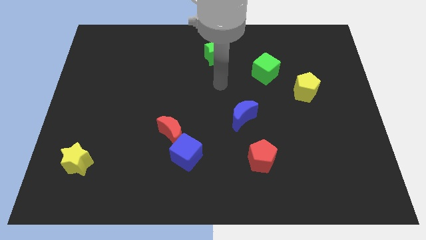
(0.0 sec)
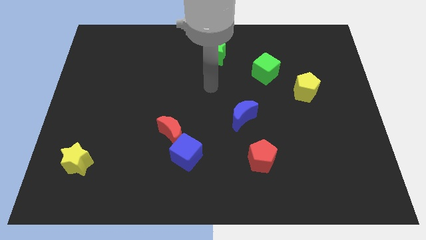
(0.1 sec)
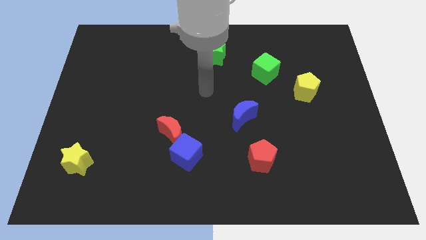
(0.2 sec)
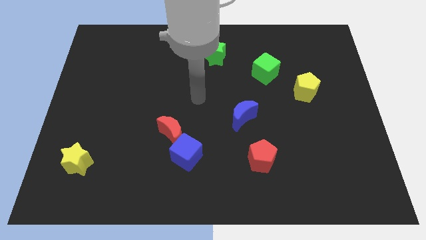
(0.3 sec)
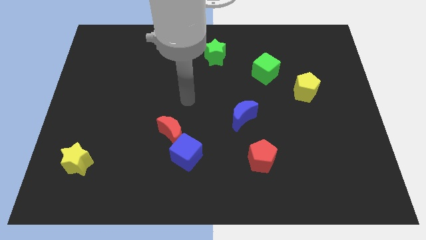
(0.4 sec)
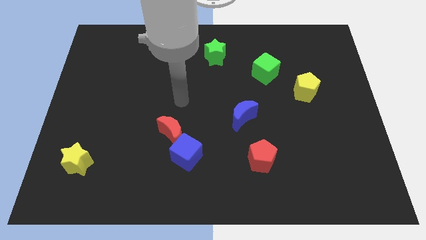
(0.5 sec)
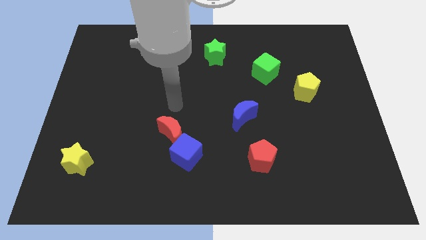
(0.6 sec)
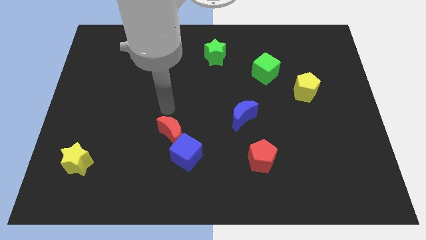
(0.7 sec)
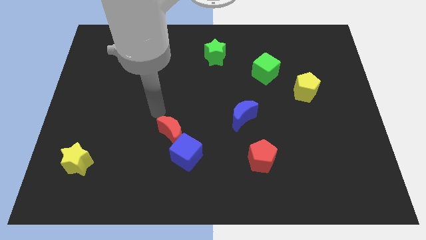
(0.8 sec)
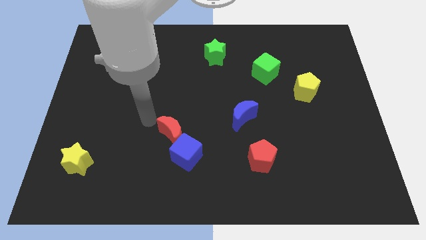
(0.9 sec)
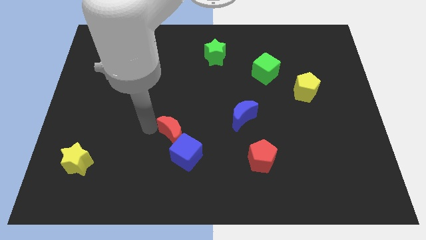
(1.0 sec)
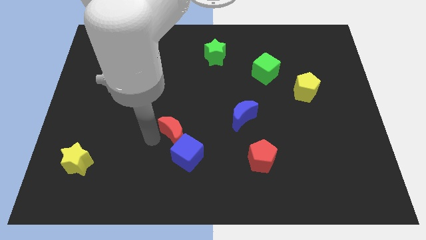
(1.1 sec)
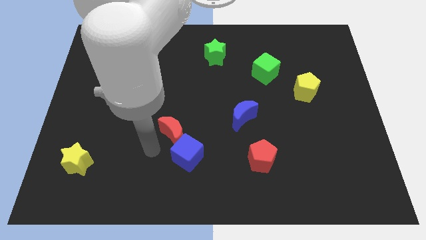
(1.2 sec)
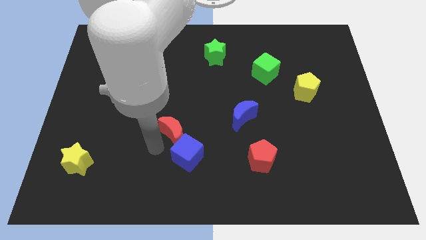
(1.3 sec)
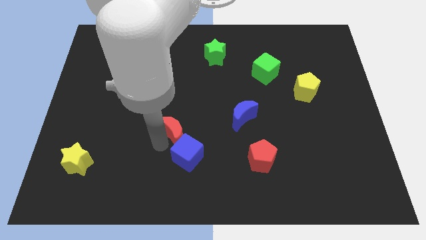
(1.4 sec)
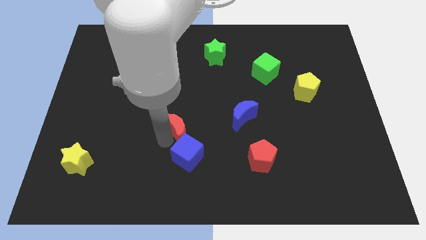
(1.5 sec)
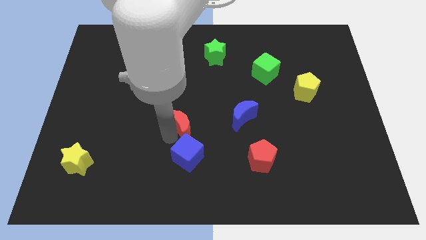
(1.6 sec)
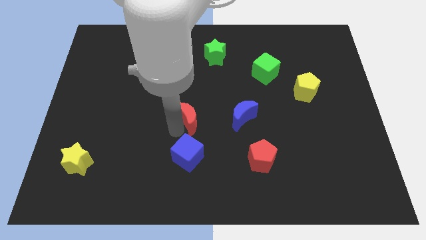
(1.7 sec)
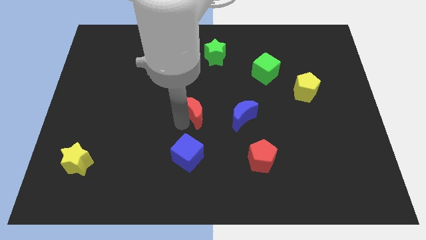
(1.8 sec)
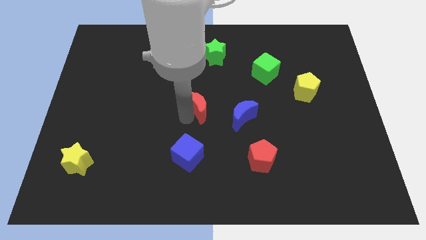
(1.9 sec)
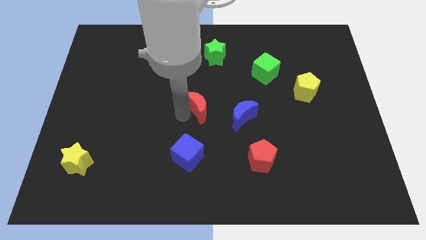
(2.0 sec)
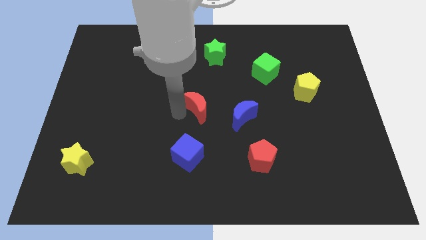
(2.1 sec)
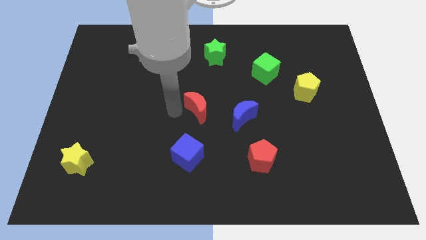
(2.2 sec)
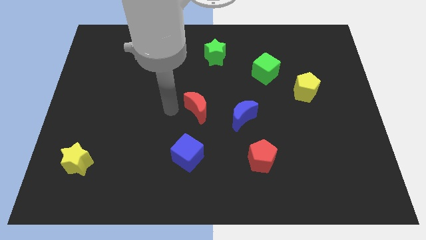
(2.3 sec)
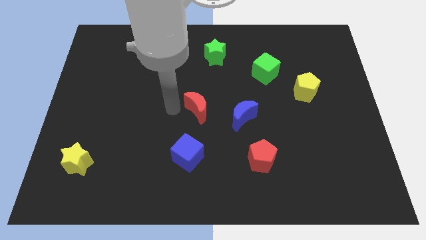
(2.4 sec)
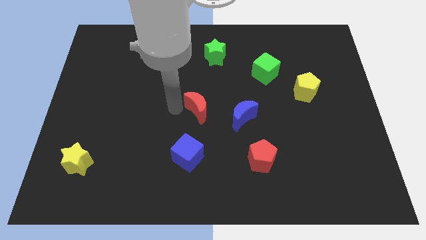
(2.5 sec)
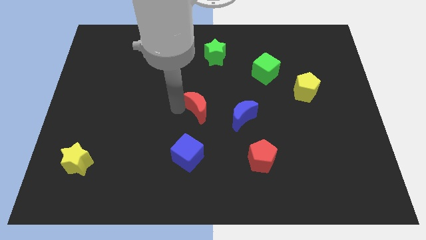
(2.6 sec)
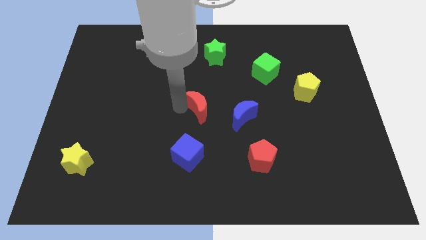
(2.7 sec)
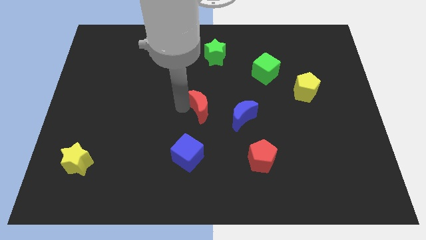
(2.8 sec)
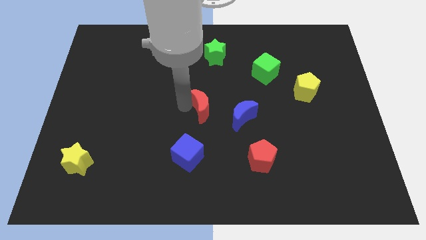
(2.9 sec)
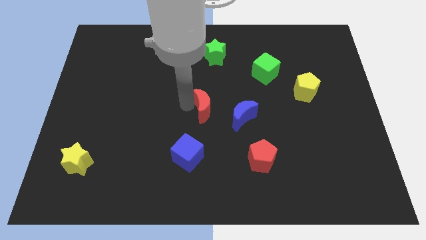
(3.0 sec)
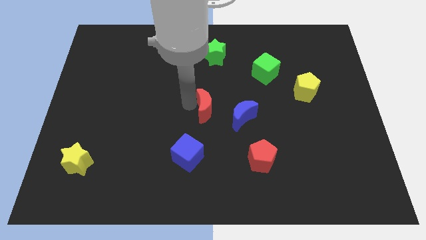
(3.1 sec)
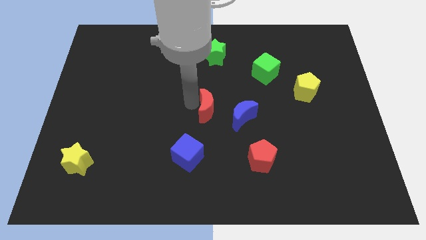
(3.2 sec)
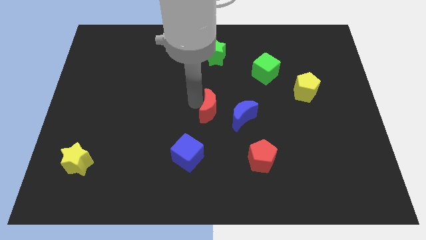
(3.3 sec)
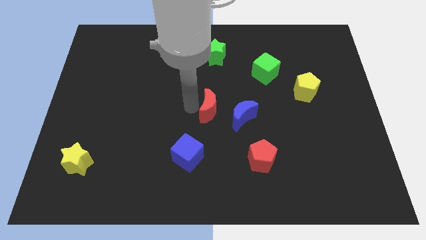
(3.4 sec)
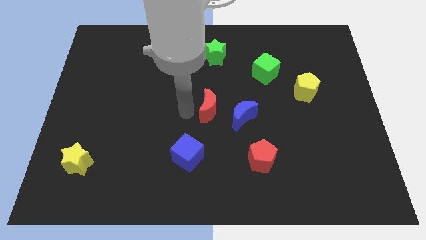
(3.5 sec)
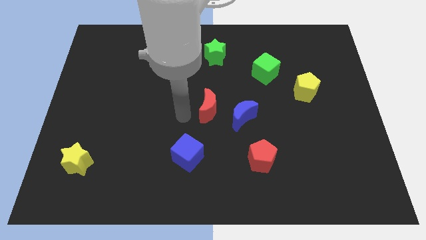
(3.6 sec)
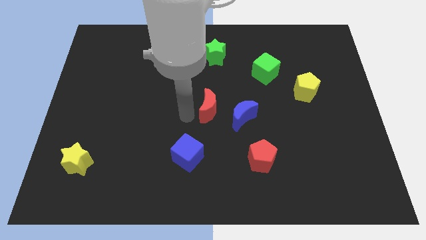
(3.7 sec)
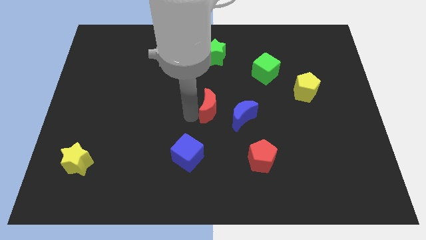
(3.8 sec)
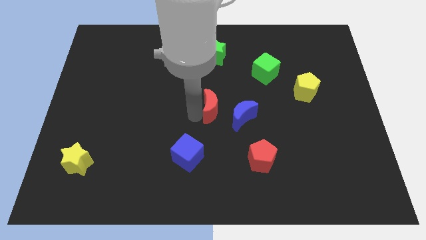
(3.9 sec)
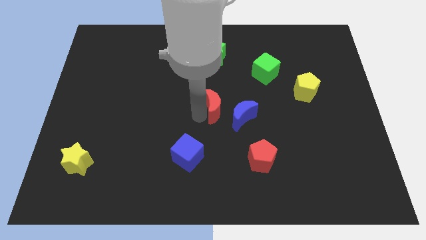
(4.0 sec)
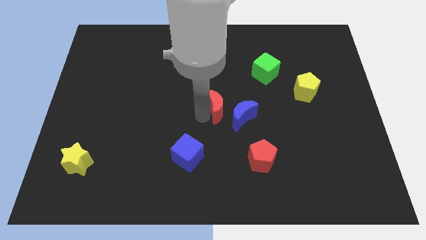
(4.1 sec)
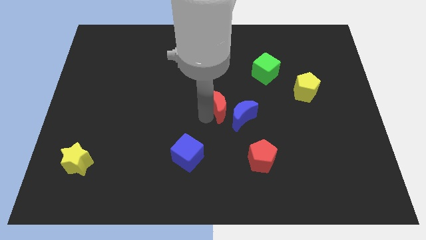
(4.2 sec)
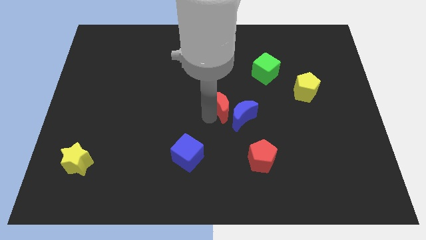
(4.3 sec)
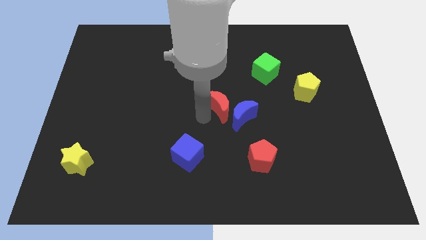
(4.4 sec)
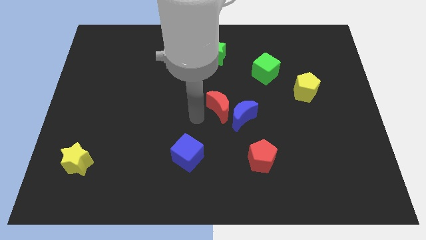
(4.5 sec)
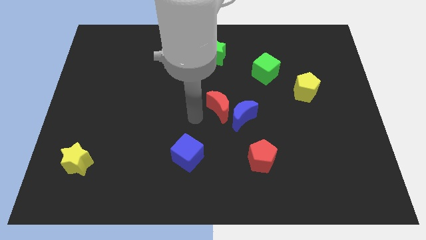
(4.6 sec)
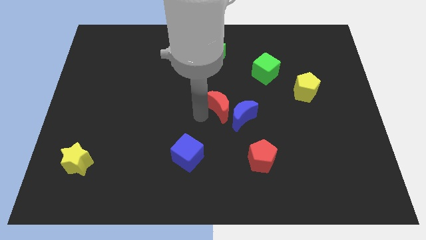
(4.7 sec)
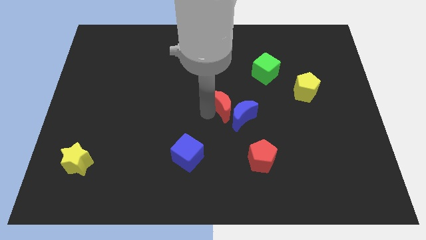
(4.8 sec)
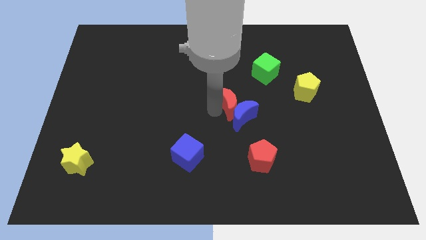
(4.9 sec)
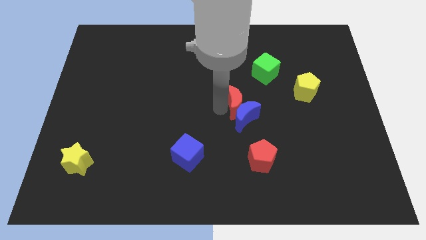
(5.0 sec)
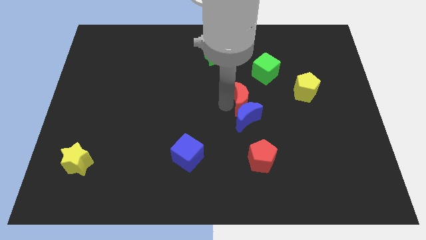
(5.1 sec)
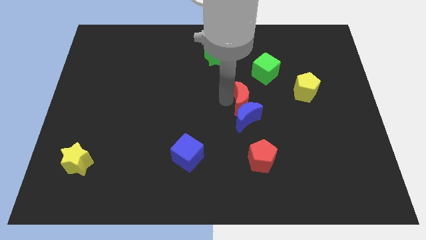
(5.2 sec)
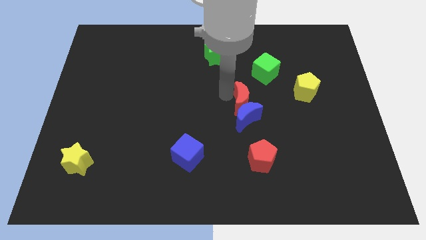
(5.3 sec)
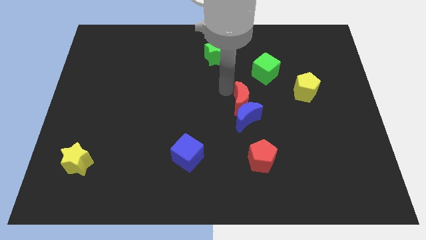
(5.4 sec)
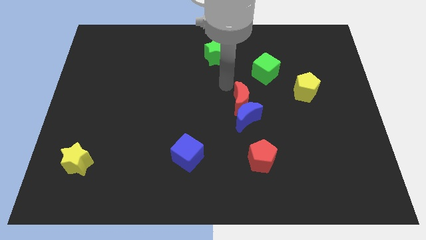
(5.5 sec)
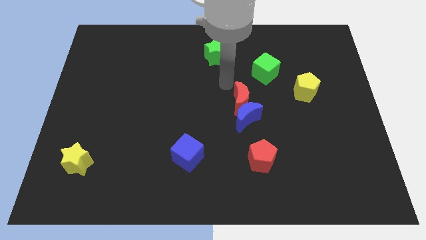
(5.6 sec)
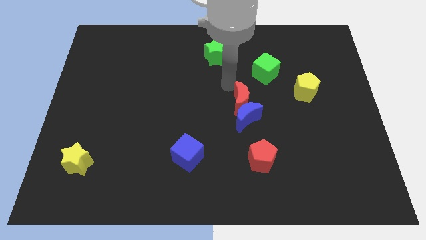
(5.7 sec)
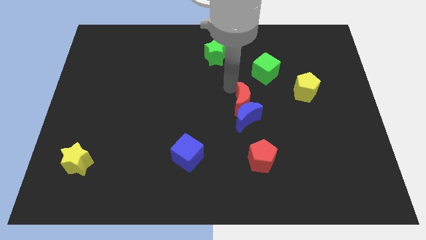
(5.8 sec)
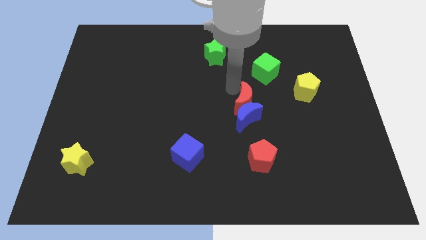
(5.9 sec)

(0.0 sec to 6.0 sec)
put the red moon above the red pentagon

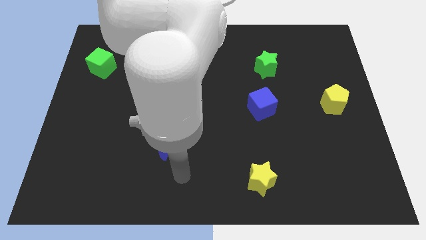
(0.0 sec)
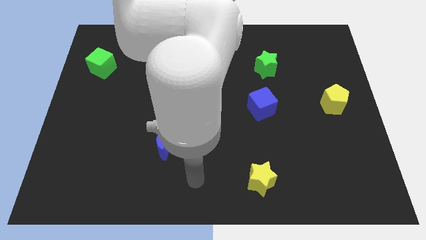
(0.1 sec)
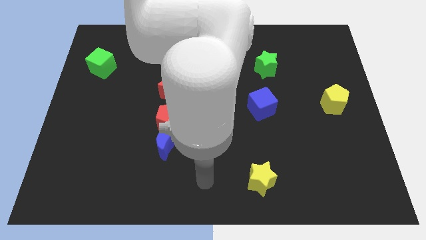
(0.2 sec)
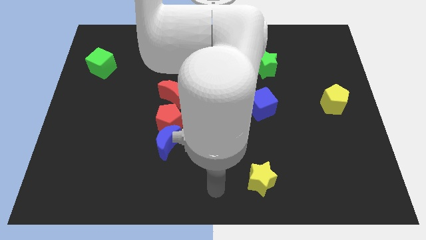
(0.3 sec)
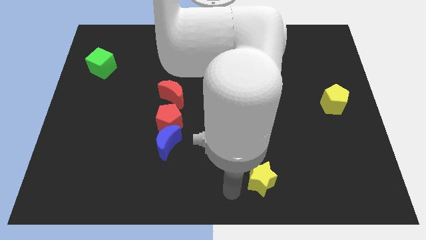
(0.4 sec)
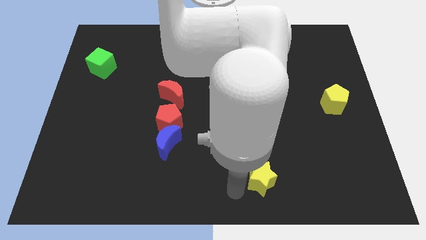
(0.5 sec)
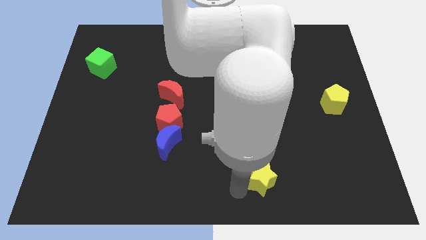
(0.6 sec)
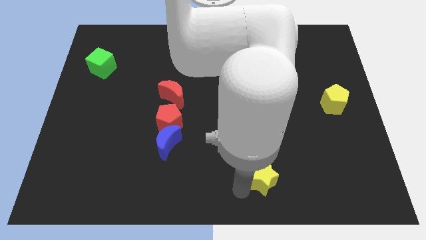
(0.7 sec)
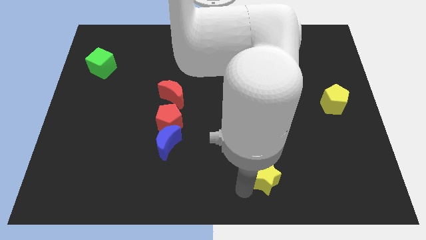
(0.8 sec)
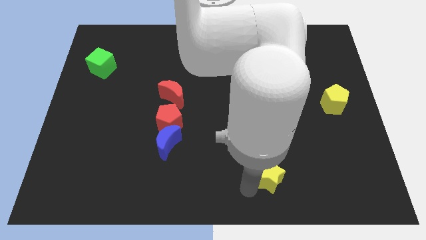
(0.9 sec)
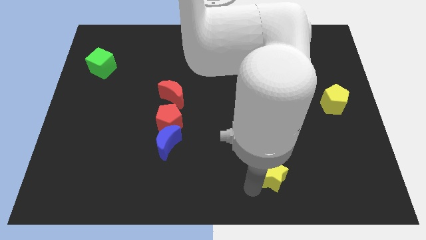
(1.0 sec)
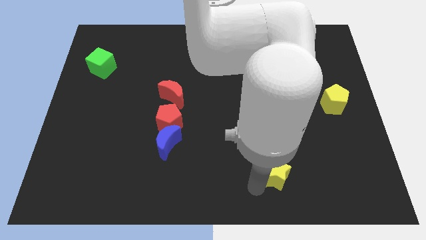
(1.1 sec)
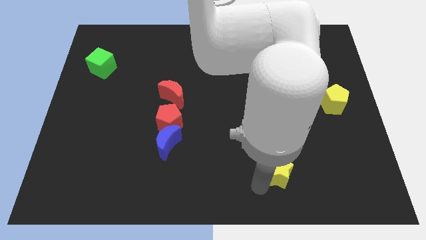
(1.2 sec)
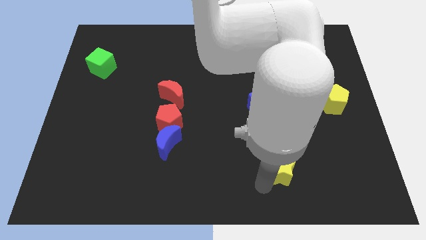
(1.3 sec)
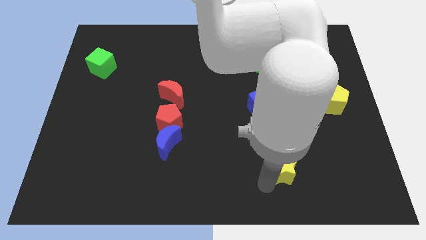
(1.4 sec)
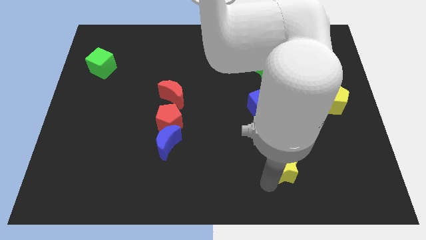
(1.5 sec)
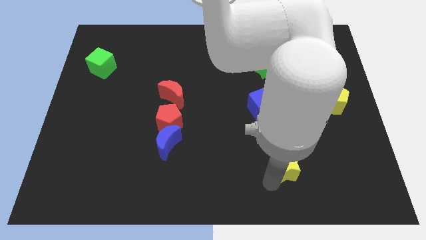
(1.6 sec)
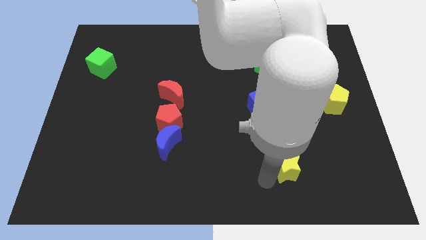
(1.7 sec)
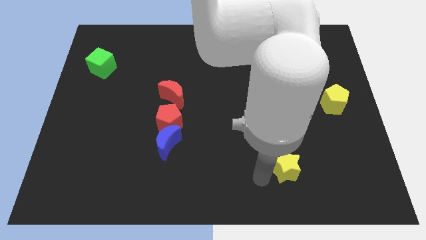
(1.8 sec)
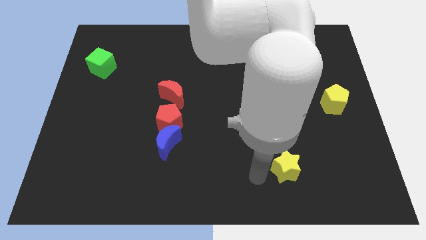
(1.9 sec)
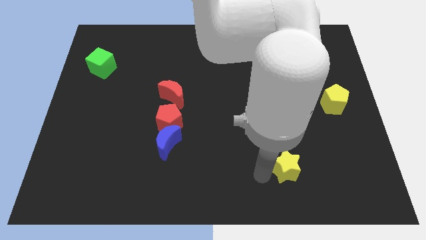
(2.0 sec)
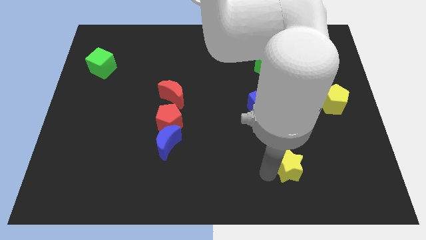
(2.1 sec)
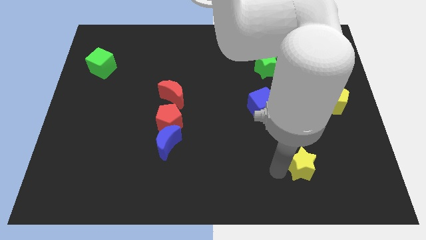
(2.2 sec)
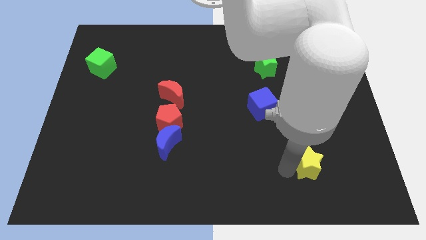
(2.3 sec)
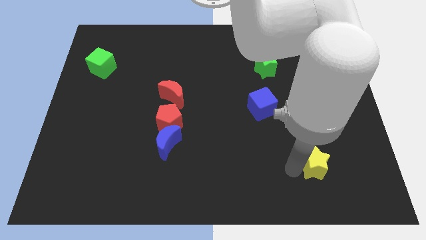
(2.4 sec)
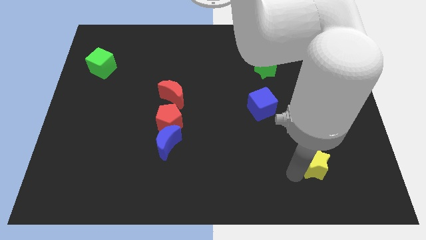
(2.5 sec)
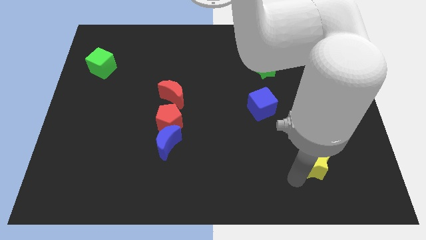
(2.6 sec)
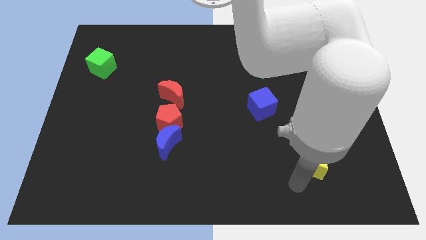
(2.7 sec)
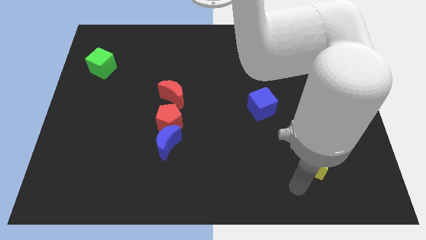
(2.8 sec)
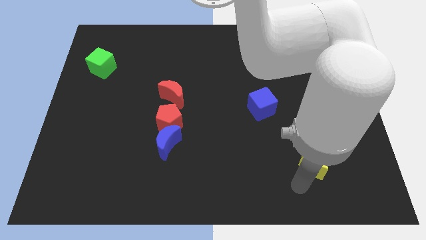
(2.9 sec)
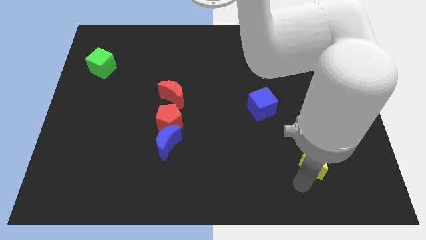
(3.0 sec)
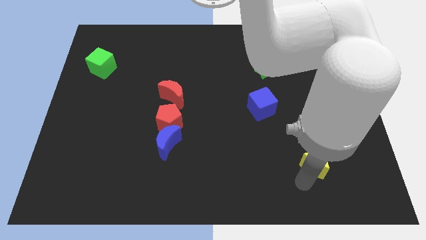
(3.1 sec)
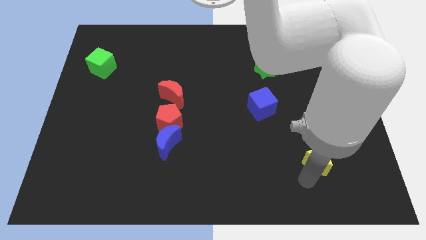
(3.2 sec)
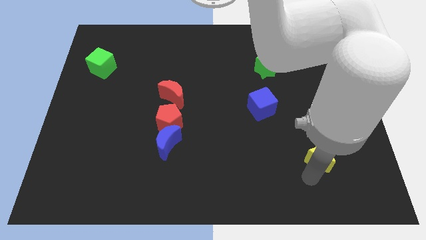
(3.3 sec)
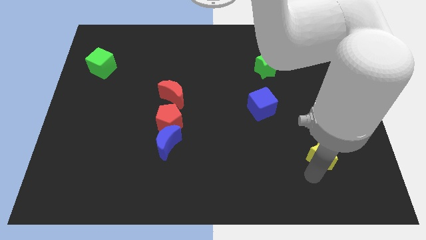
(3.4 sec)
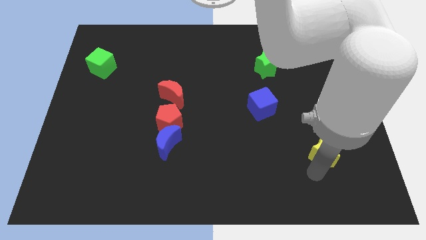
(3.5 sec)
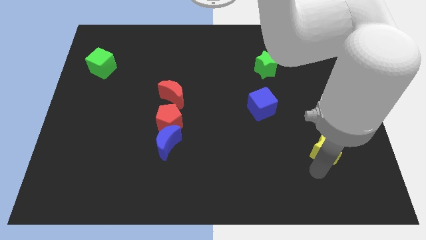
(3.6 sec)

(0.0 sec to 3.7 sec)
push the yellow star to the bottom side of the yellow pentagon
